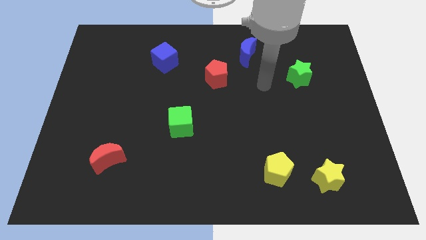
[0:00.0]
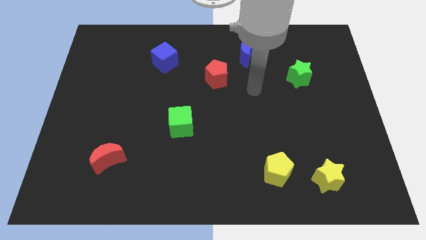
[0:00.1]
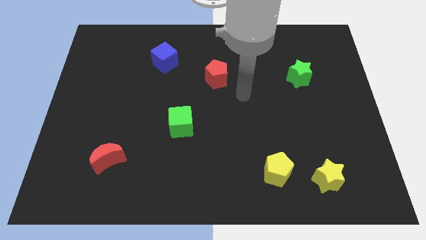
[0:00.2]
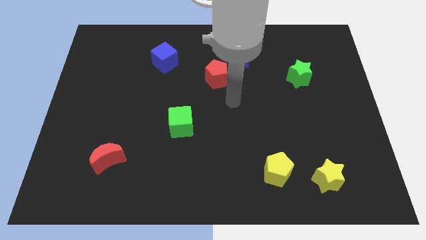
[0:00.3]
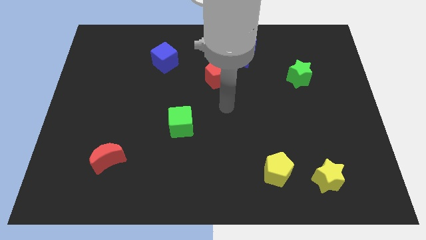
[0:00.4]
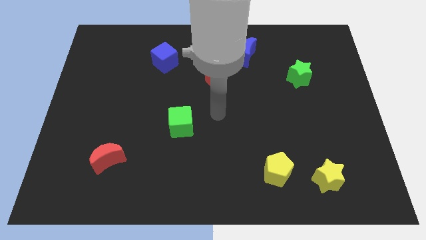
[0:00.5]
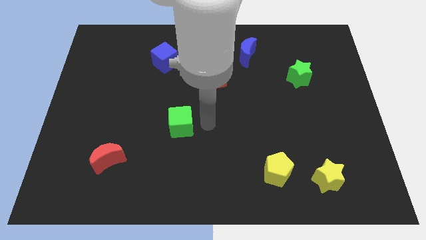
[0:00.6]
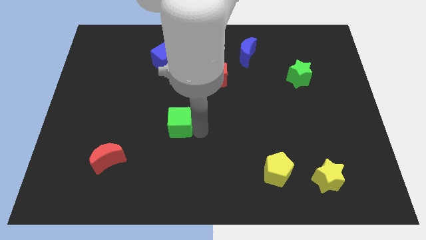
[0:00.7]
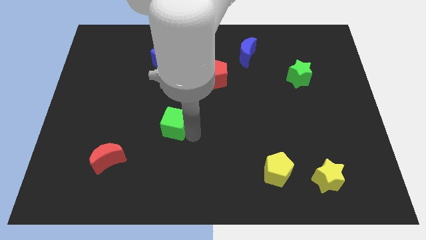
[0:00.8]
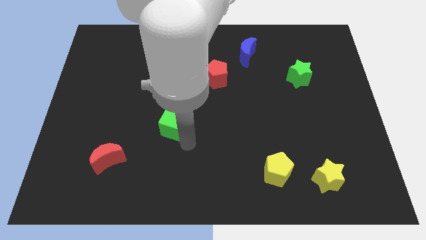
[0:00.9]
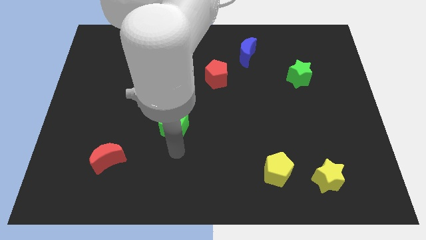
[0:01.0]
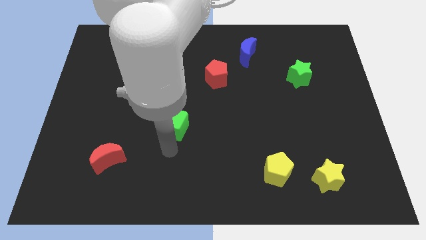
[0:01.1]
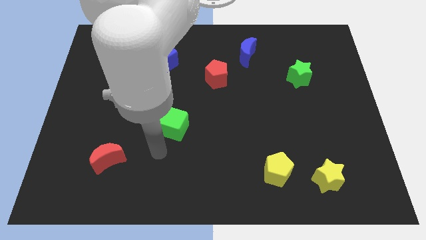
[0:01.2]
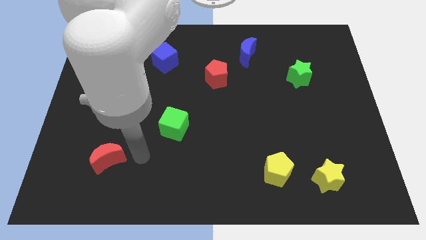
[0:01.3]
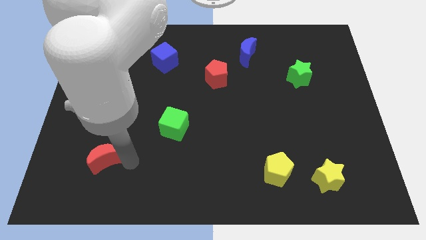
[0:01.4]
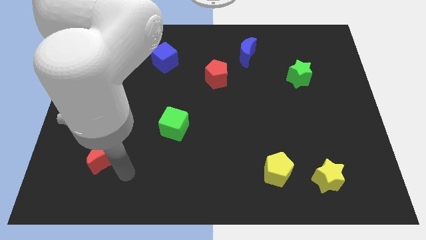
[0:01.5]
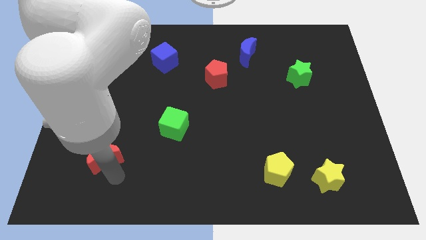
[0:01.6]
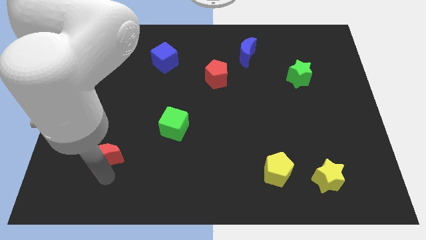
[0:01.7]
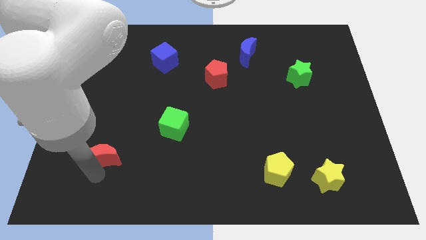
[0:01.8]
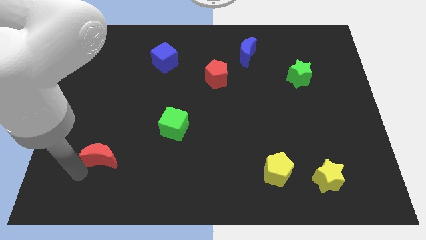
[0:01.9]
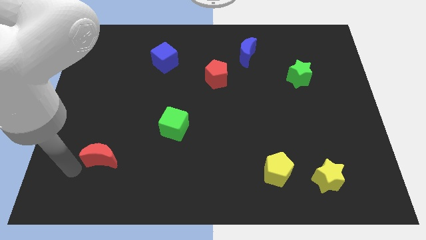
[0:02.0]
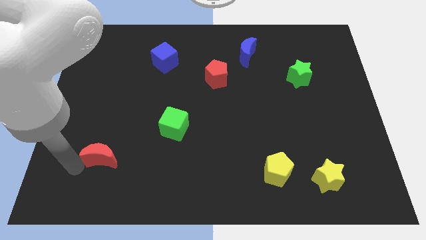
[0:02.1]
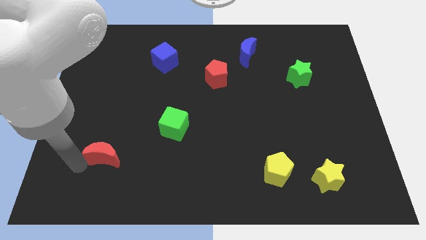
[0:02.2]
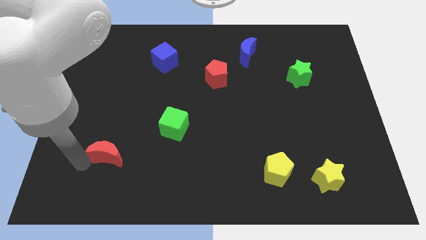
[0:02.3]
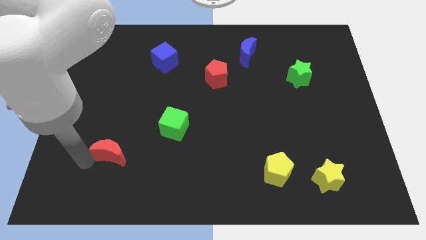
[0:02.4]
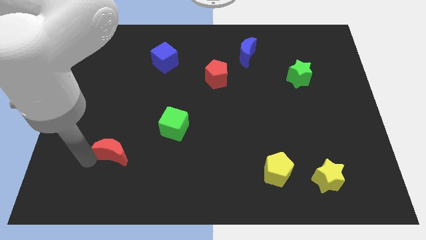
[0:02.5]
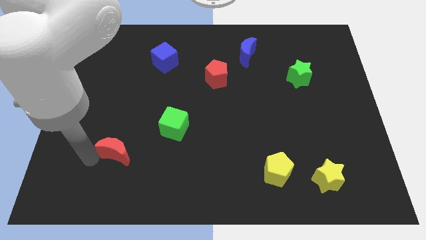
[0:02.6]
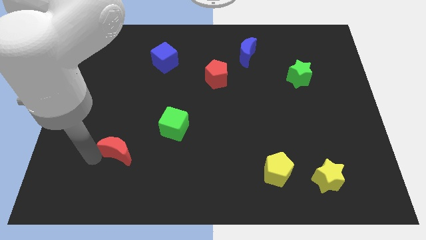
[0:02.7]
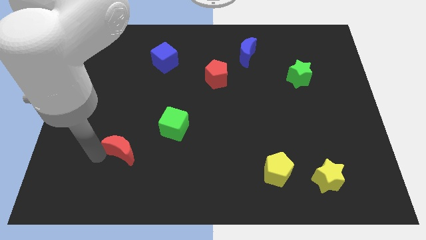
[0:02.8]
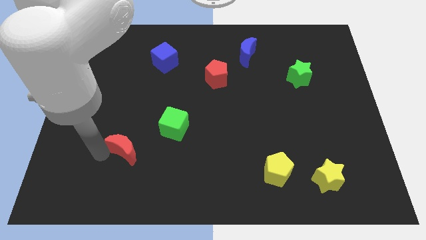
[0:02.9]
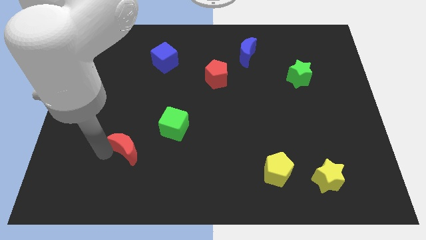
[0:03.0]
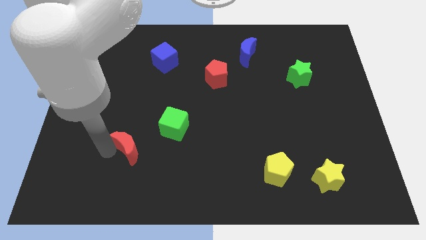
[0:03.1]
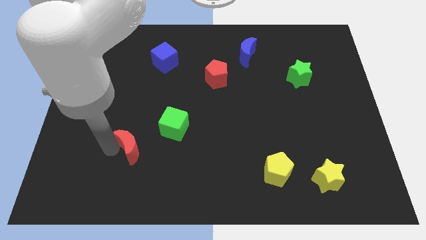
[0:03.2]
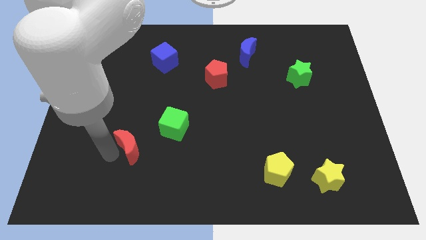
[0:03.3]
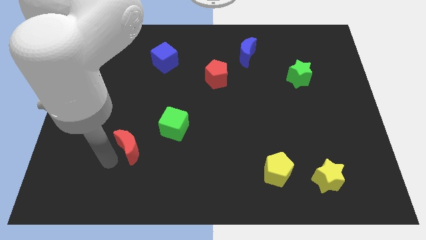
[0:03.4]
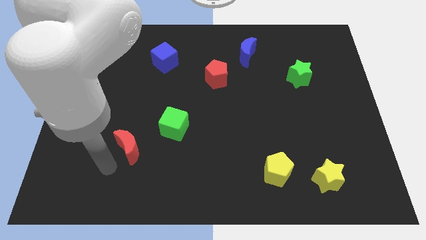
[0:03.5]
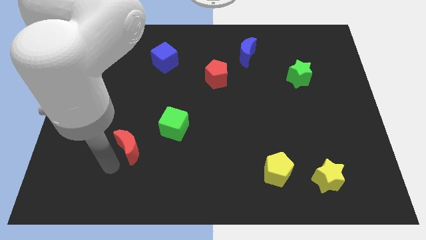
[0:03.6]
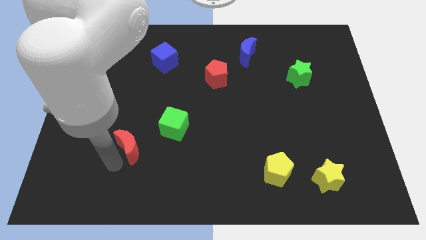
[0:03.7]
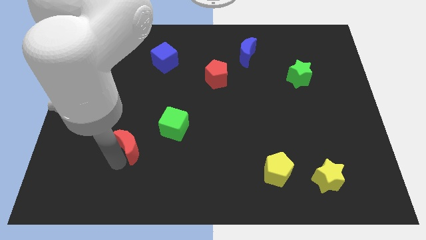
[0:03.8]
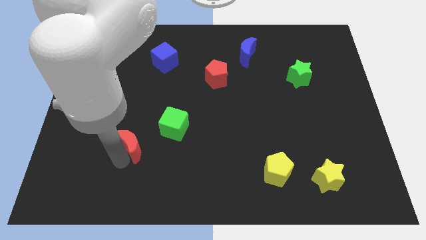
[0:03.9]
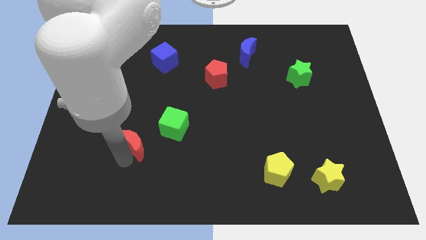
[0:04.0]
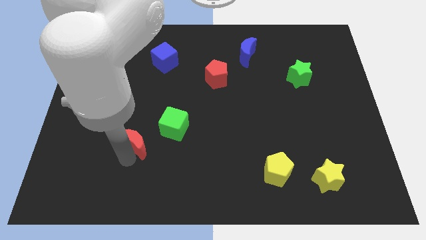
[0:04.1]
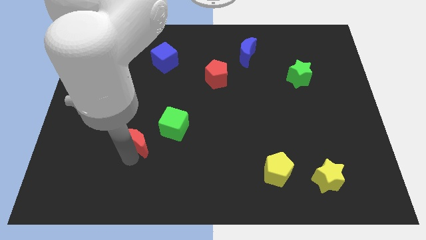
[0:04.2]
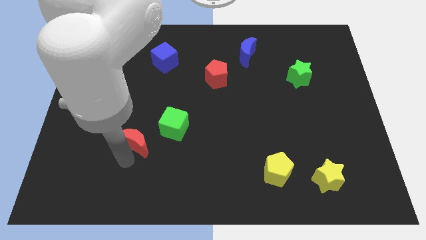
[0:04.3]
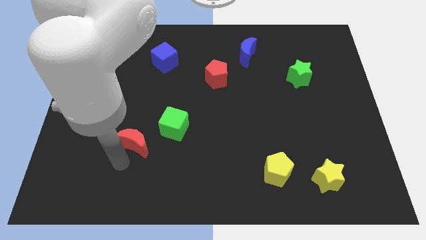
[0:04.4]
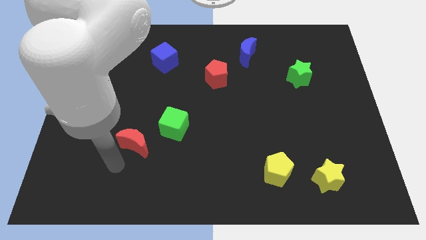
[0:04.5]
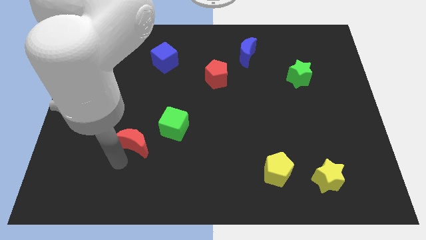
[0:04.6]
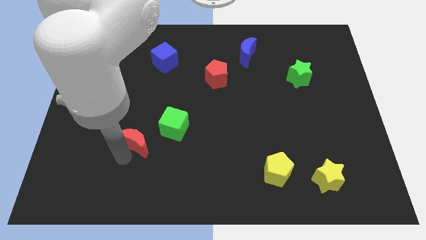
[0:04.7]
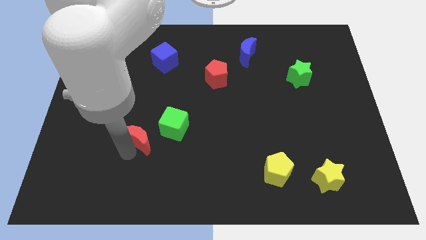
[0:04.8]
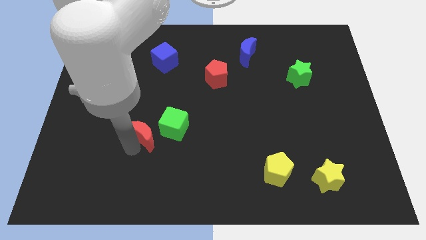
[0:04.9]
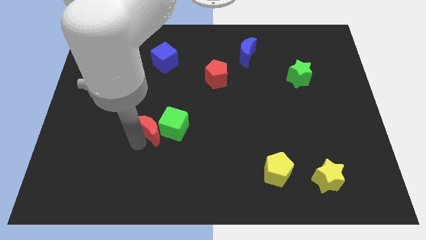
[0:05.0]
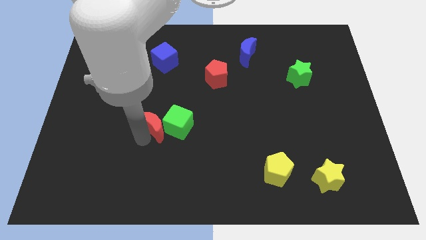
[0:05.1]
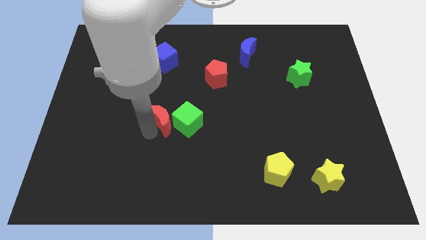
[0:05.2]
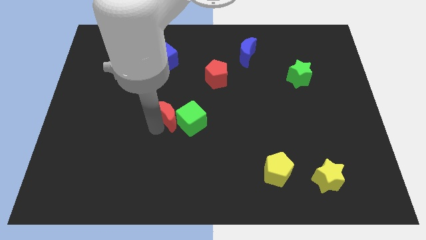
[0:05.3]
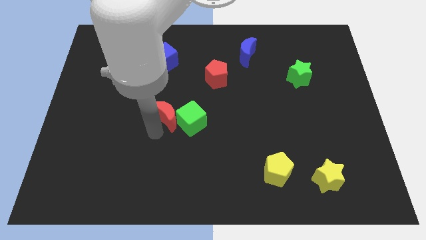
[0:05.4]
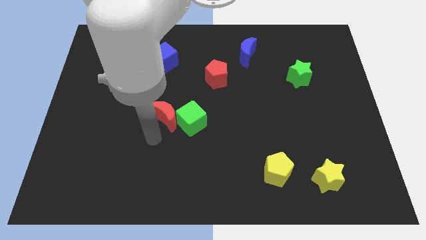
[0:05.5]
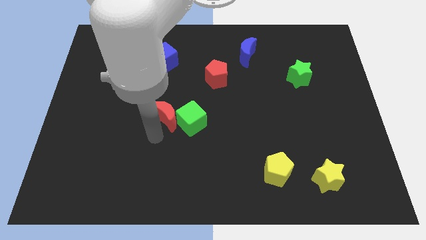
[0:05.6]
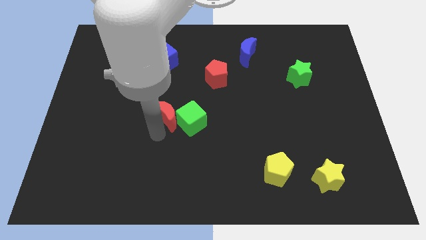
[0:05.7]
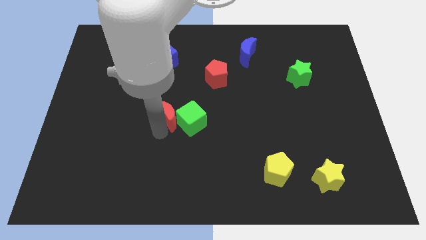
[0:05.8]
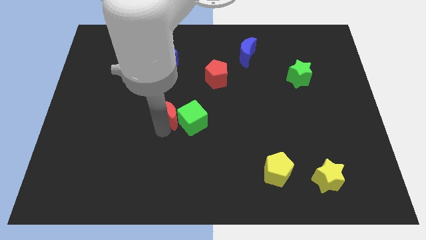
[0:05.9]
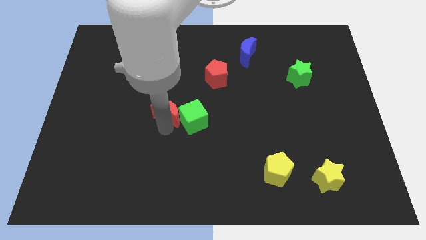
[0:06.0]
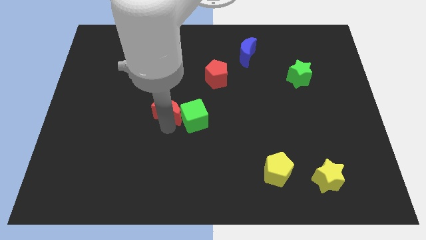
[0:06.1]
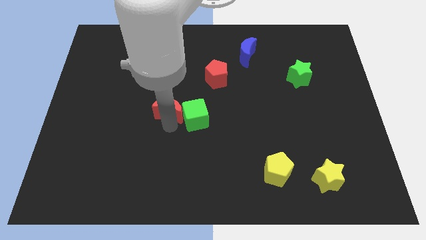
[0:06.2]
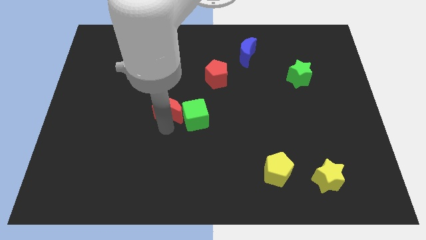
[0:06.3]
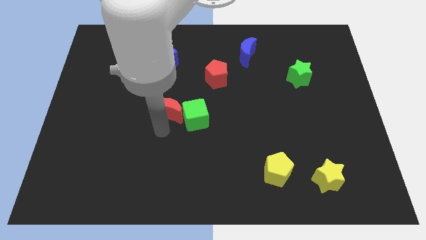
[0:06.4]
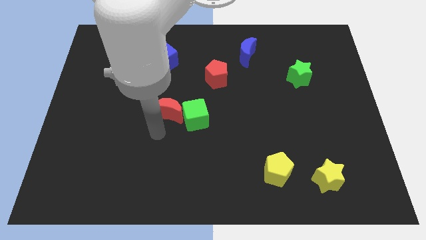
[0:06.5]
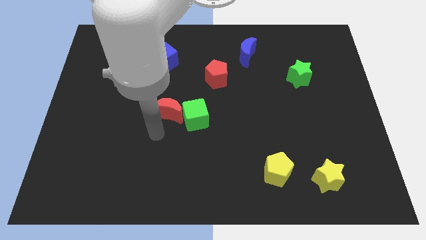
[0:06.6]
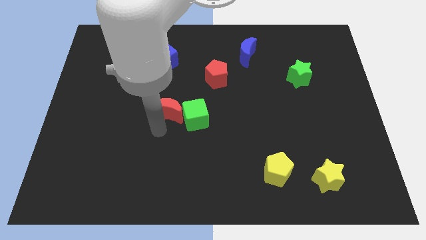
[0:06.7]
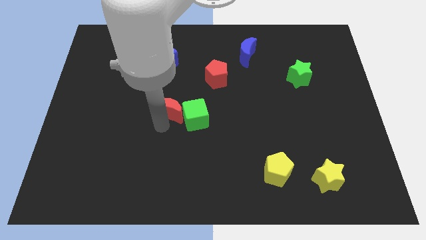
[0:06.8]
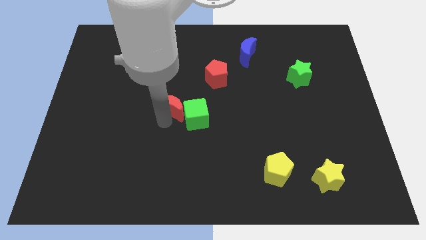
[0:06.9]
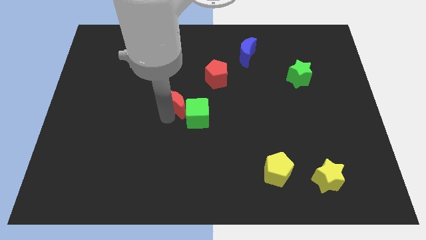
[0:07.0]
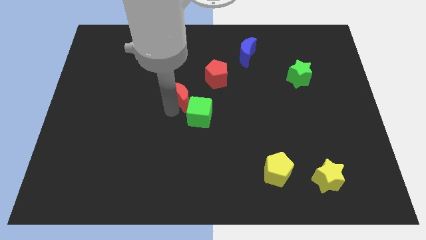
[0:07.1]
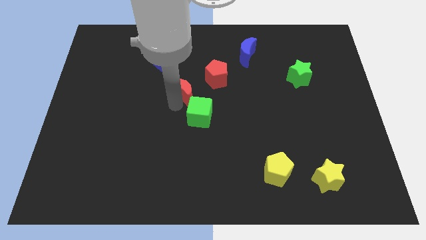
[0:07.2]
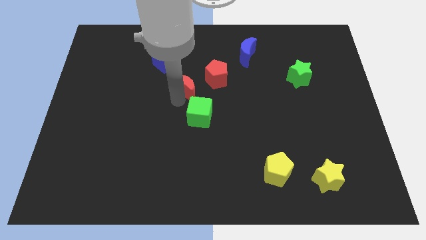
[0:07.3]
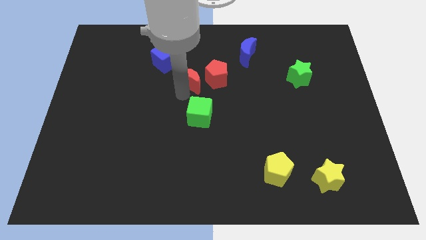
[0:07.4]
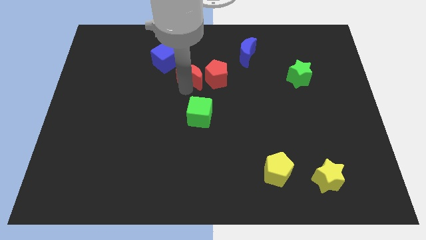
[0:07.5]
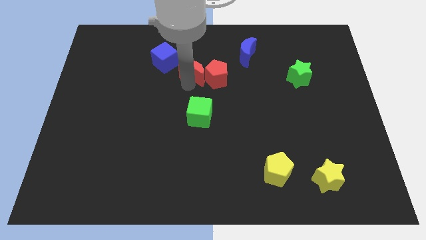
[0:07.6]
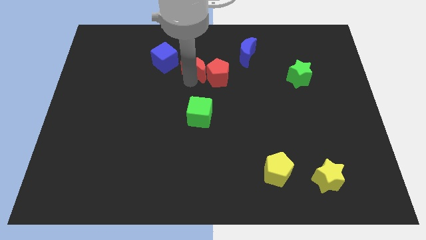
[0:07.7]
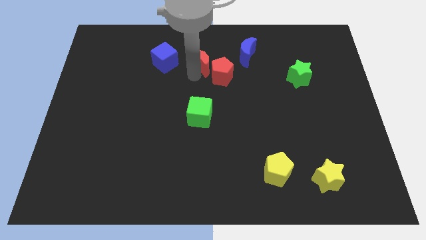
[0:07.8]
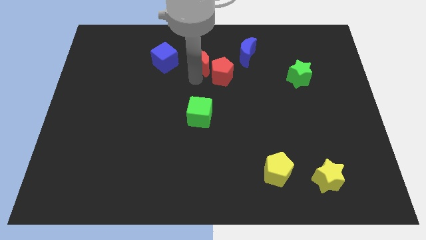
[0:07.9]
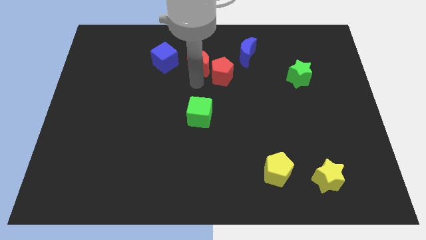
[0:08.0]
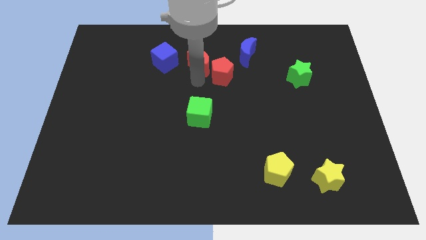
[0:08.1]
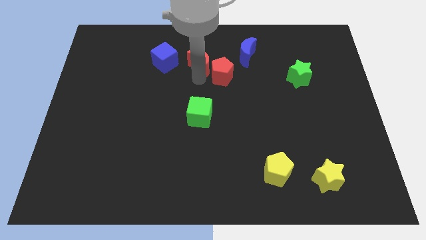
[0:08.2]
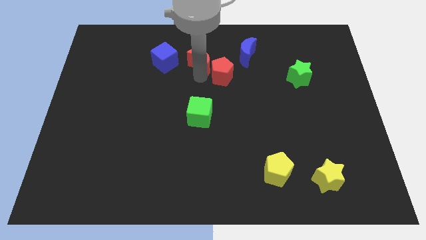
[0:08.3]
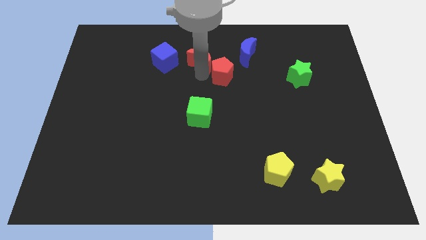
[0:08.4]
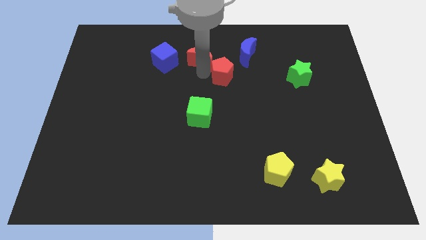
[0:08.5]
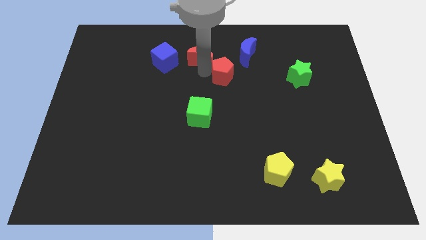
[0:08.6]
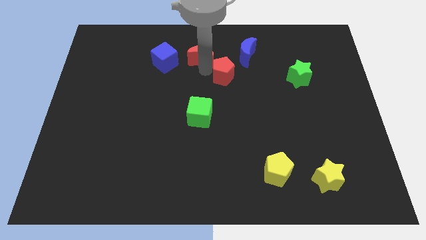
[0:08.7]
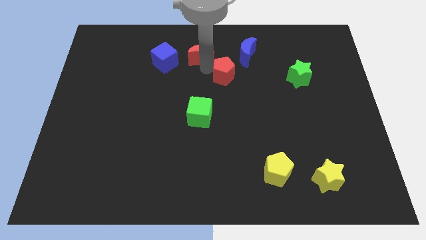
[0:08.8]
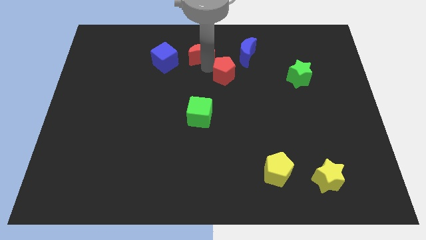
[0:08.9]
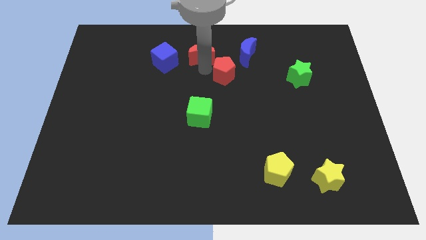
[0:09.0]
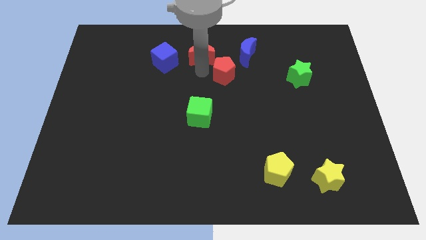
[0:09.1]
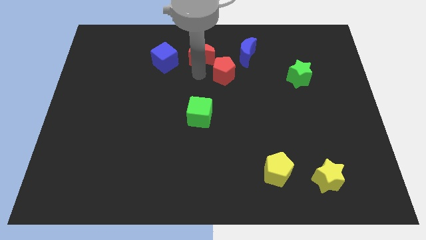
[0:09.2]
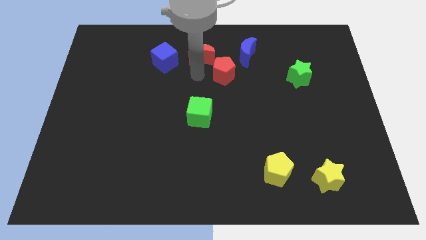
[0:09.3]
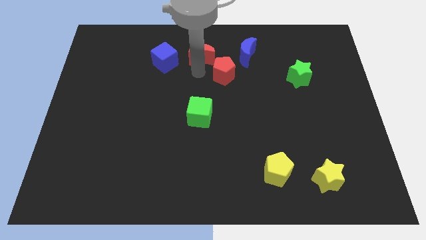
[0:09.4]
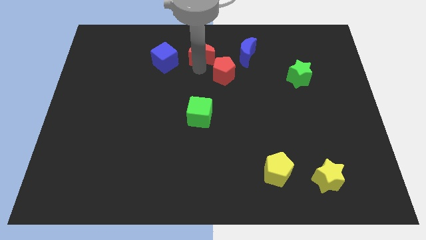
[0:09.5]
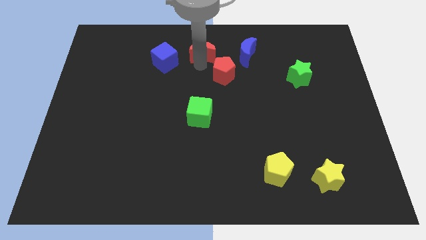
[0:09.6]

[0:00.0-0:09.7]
move the red moon to the top side
